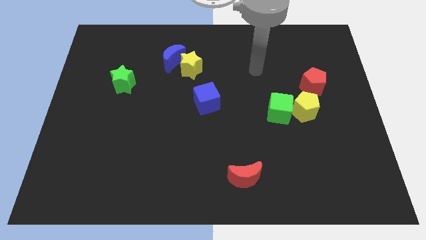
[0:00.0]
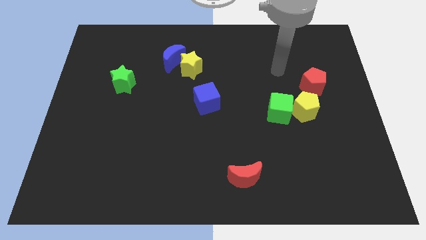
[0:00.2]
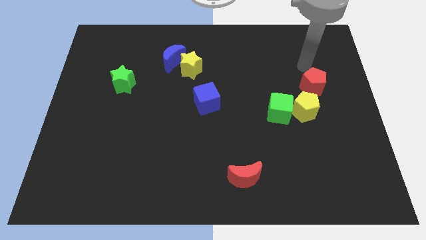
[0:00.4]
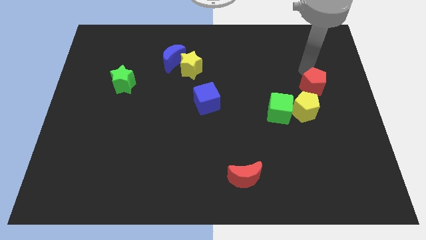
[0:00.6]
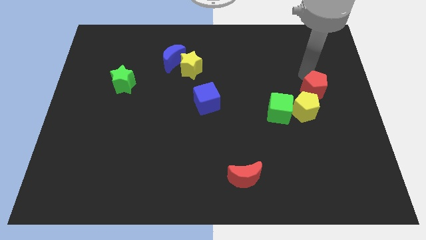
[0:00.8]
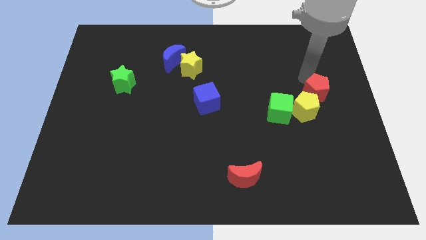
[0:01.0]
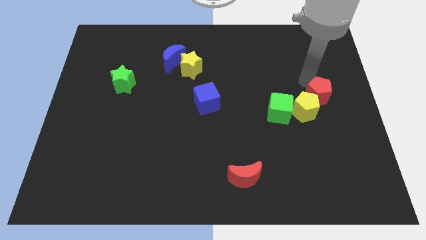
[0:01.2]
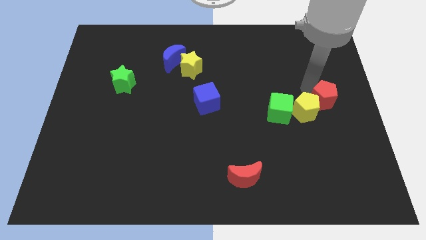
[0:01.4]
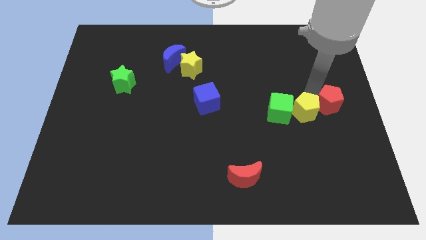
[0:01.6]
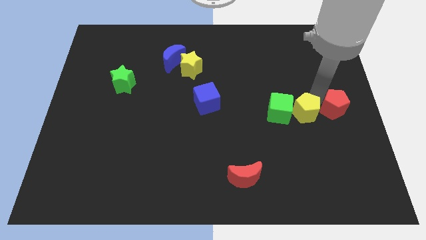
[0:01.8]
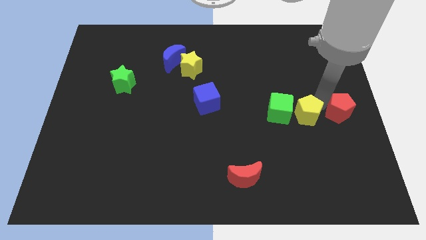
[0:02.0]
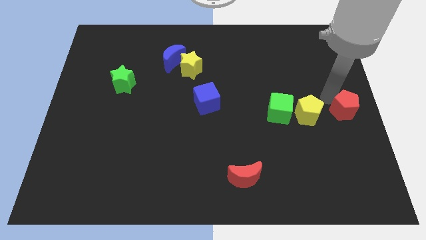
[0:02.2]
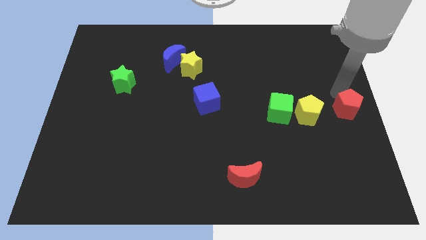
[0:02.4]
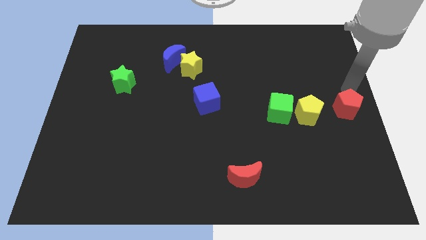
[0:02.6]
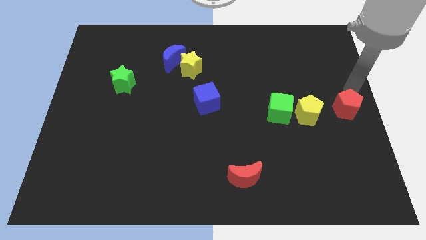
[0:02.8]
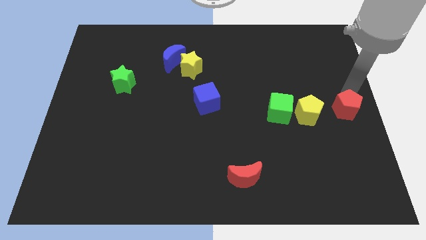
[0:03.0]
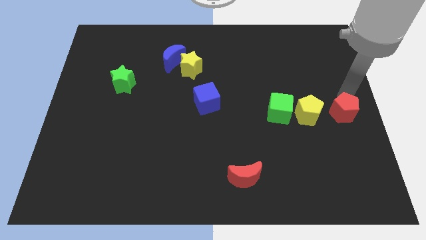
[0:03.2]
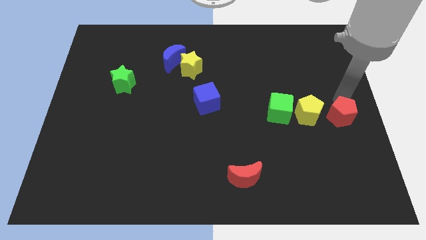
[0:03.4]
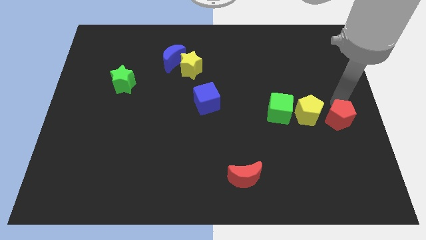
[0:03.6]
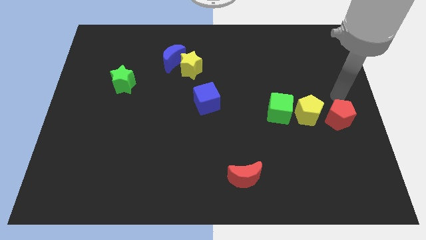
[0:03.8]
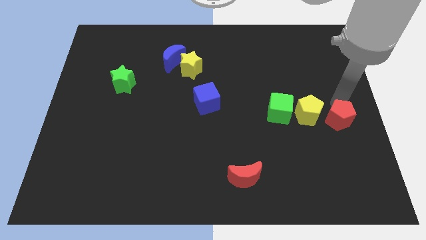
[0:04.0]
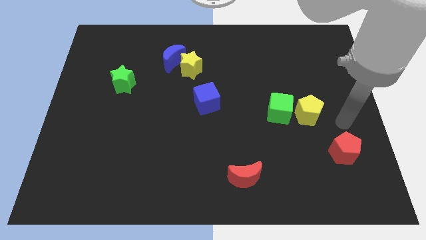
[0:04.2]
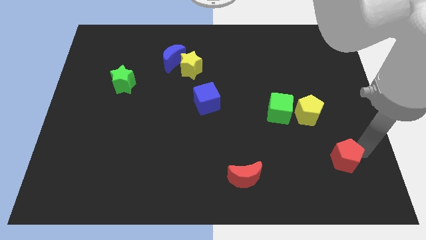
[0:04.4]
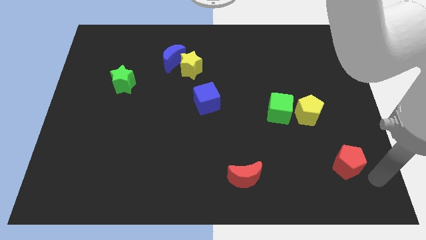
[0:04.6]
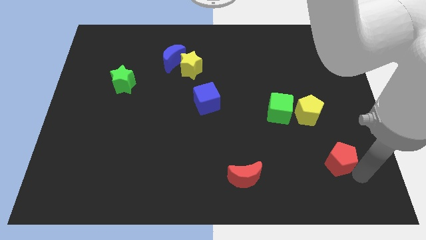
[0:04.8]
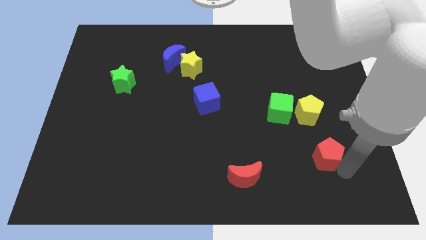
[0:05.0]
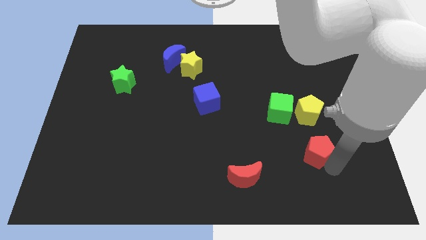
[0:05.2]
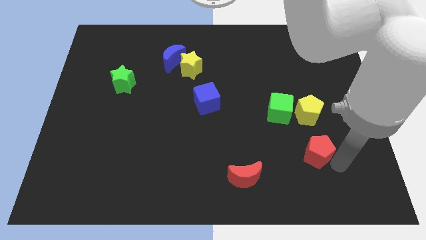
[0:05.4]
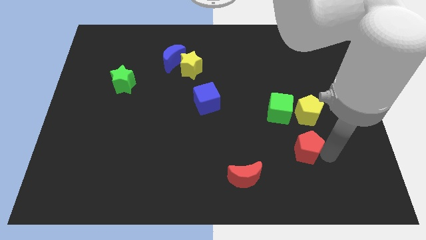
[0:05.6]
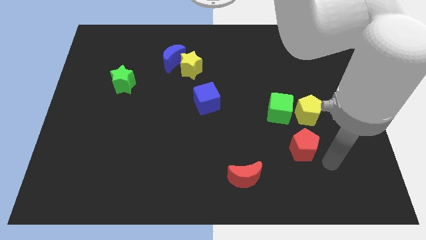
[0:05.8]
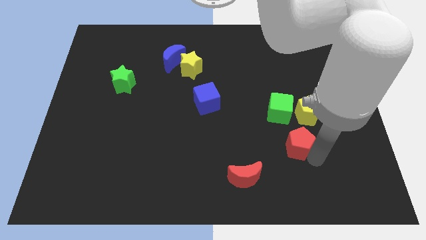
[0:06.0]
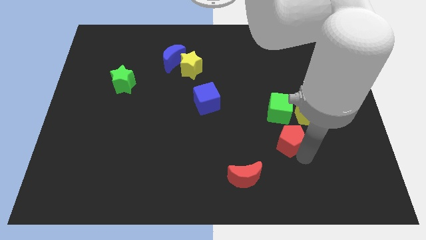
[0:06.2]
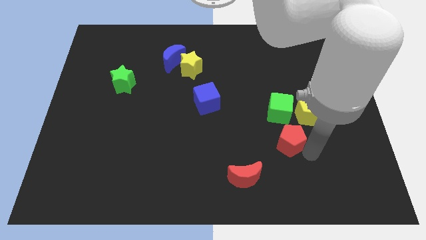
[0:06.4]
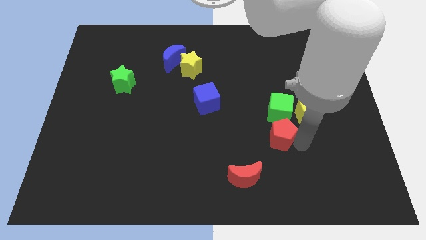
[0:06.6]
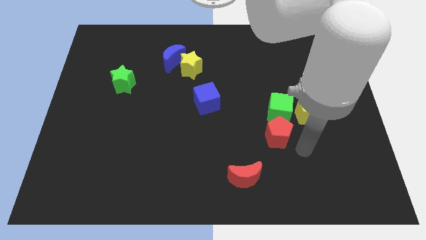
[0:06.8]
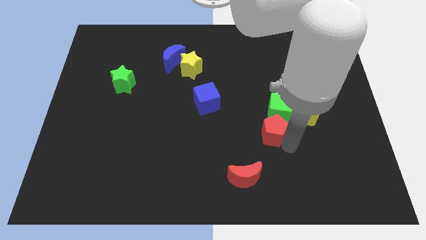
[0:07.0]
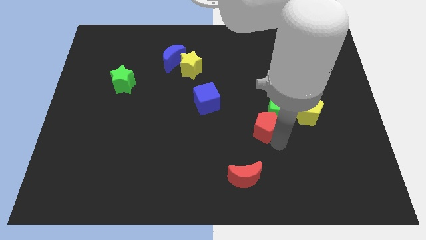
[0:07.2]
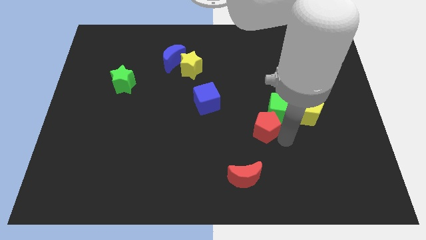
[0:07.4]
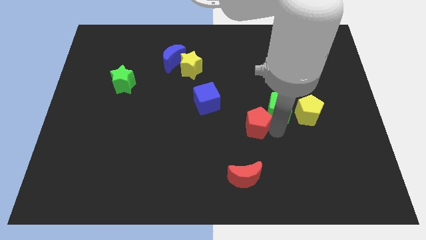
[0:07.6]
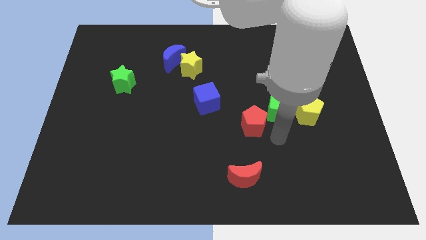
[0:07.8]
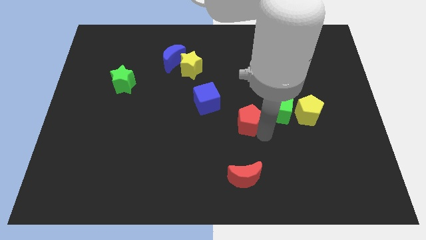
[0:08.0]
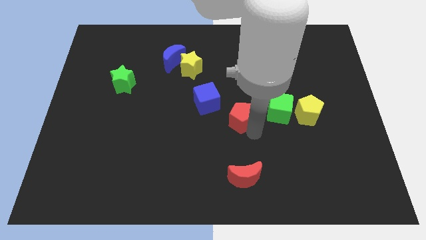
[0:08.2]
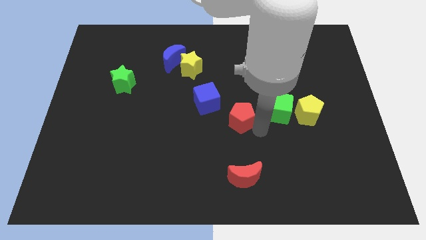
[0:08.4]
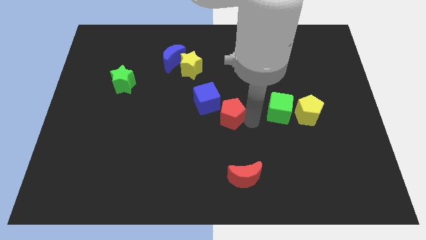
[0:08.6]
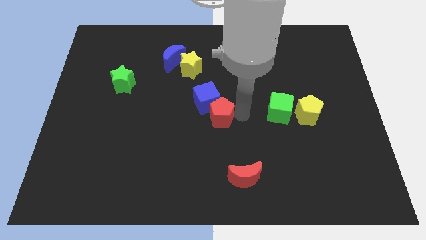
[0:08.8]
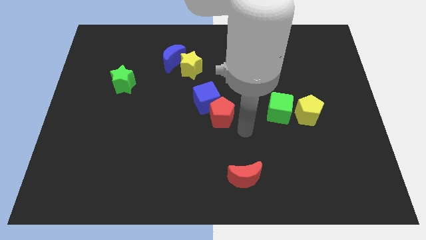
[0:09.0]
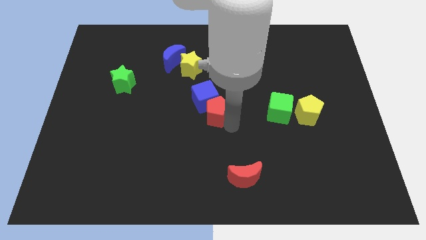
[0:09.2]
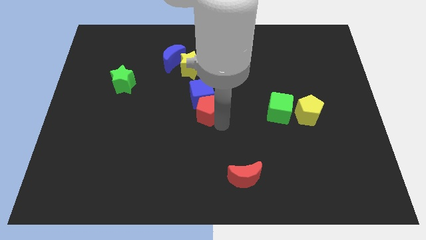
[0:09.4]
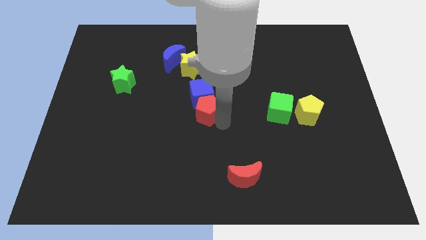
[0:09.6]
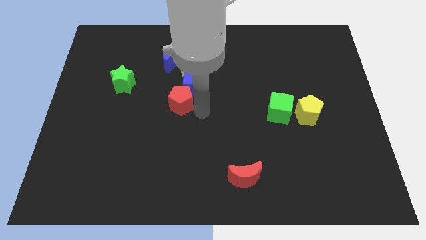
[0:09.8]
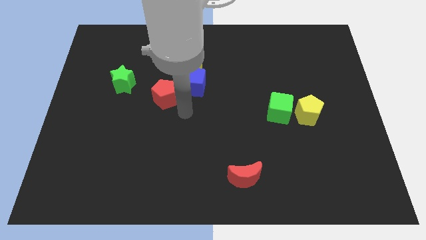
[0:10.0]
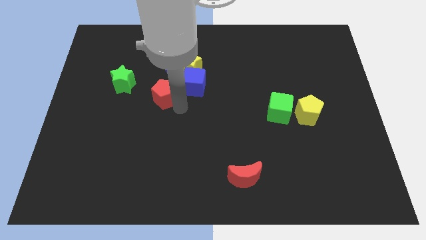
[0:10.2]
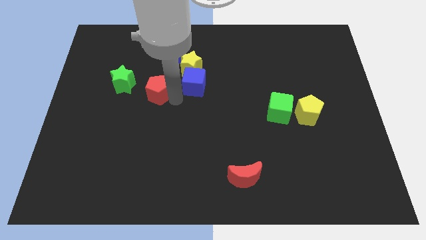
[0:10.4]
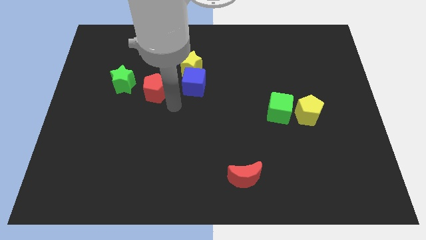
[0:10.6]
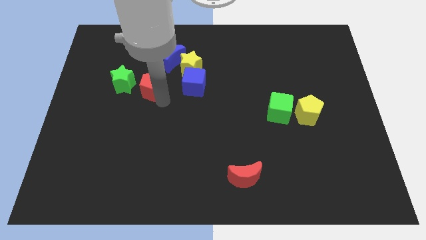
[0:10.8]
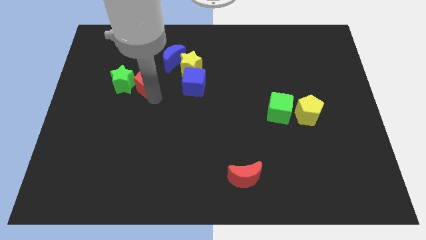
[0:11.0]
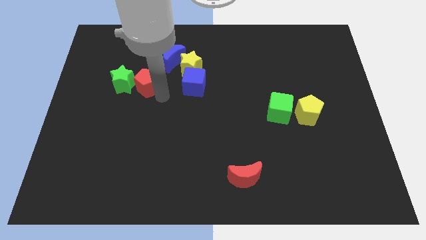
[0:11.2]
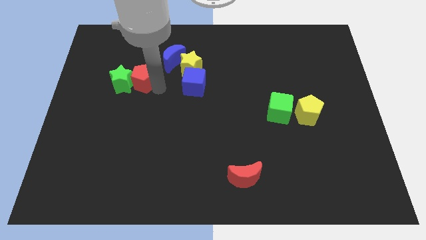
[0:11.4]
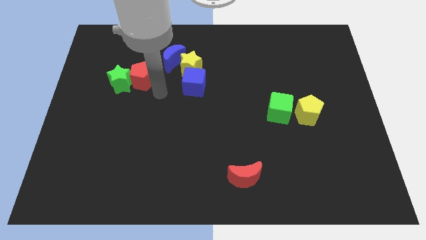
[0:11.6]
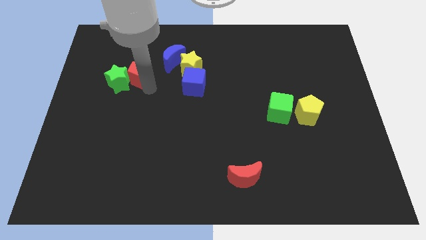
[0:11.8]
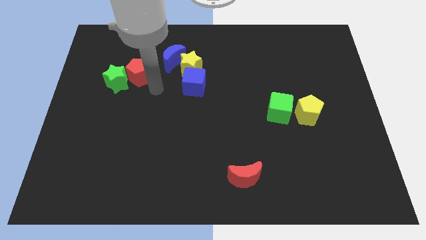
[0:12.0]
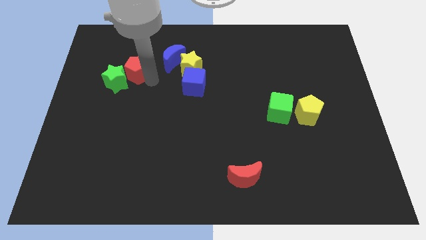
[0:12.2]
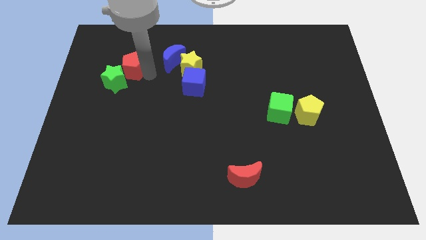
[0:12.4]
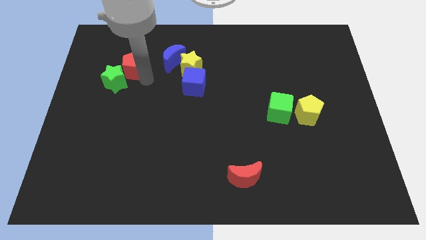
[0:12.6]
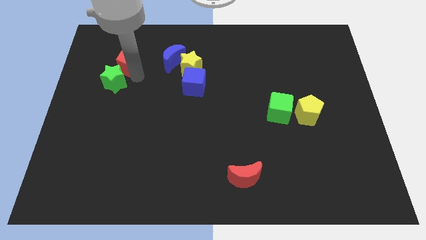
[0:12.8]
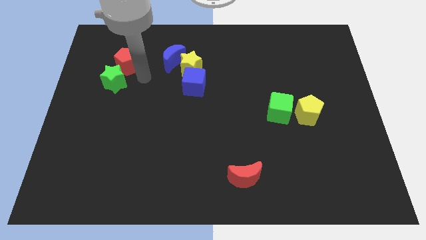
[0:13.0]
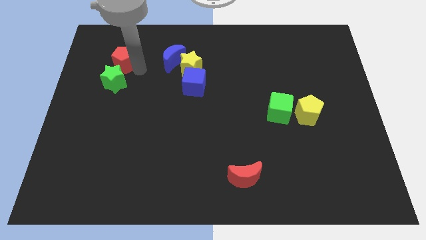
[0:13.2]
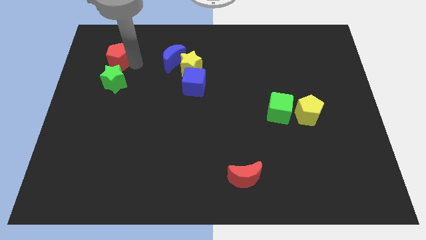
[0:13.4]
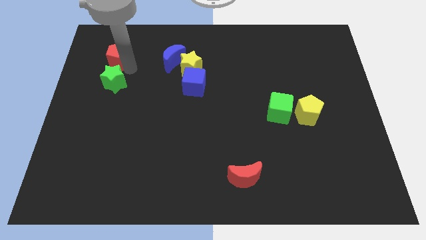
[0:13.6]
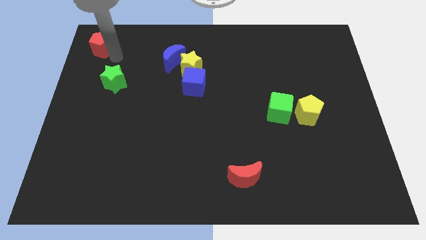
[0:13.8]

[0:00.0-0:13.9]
push the red pentagon to the top left of the board
